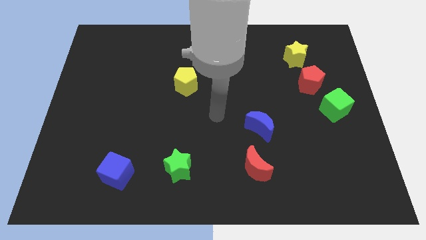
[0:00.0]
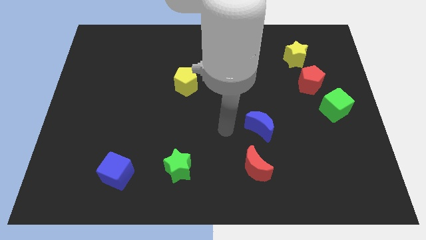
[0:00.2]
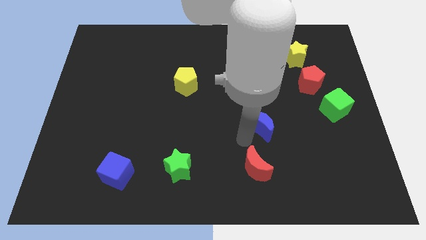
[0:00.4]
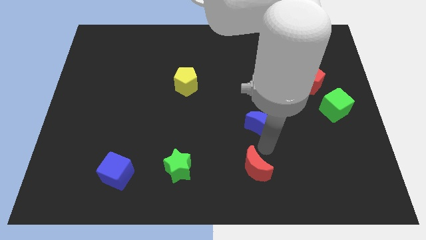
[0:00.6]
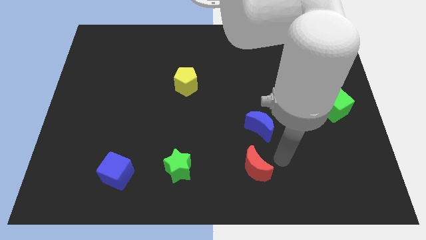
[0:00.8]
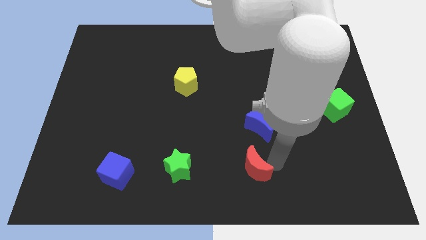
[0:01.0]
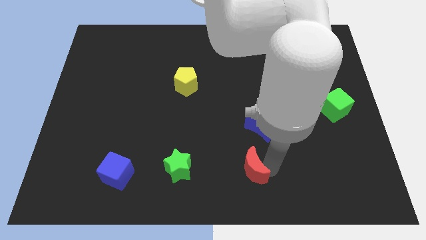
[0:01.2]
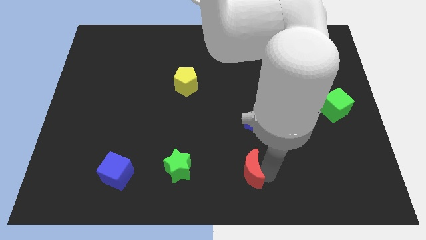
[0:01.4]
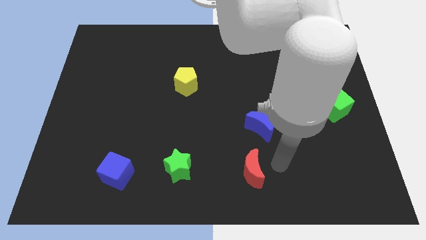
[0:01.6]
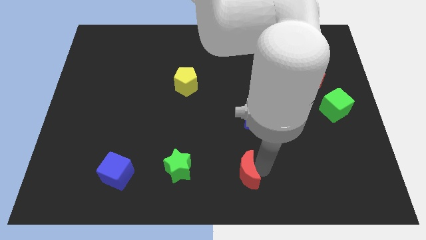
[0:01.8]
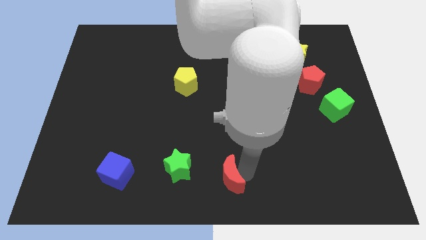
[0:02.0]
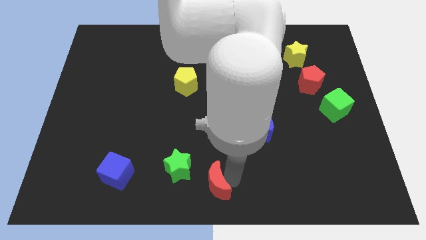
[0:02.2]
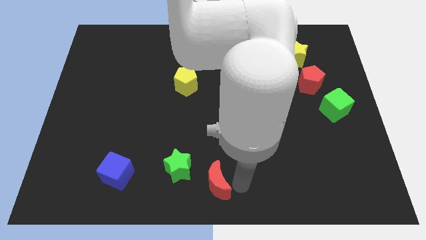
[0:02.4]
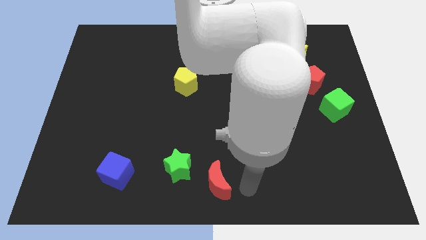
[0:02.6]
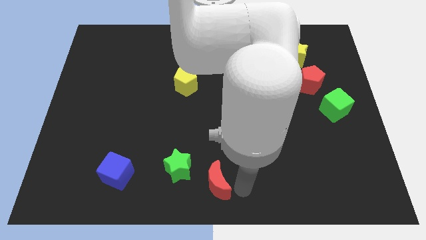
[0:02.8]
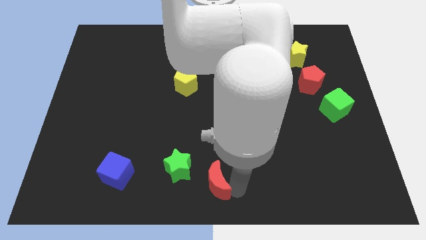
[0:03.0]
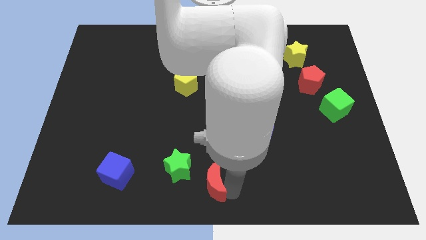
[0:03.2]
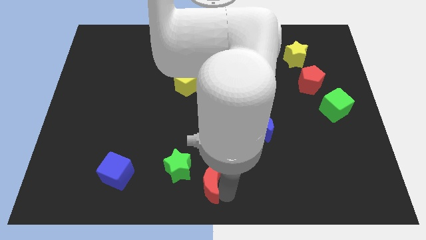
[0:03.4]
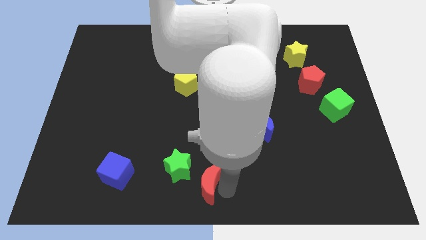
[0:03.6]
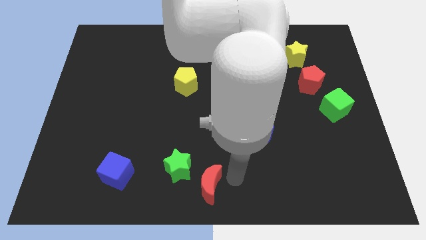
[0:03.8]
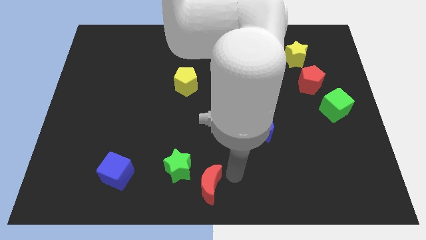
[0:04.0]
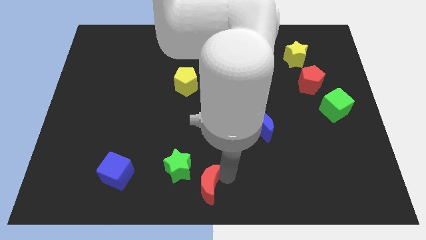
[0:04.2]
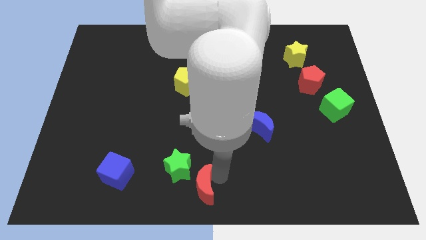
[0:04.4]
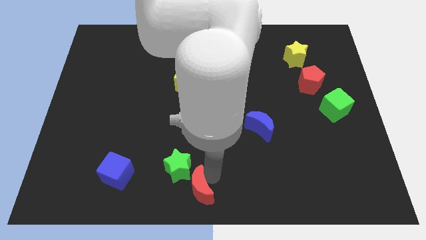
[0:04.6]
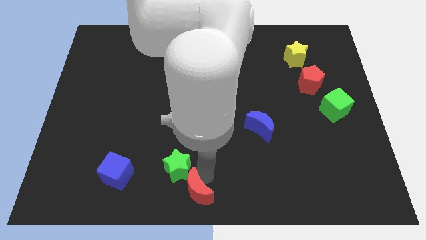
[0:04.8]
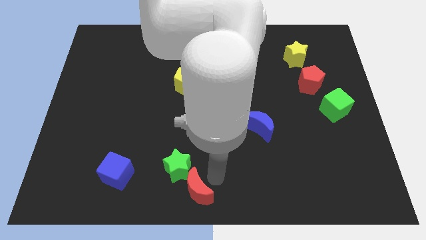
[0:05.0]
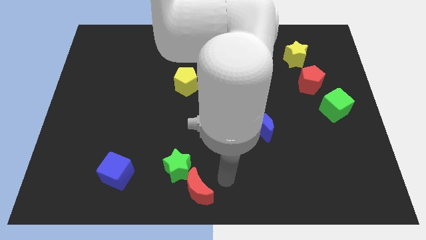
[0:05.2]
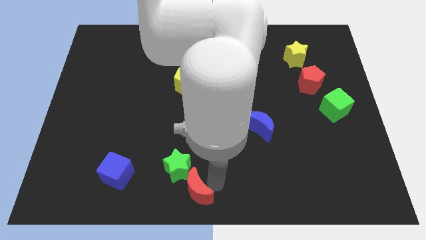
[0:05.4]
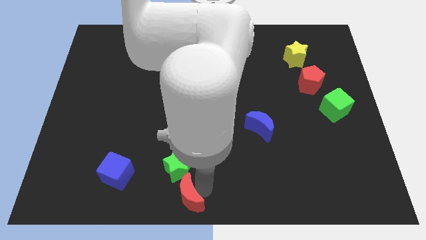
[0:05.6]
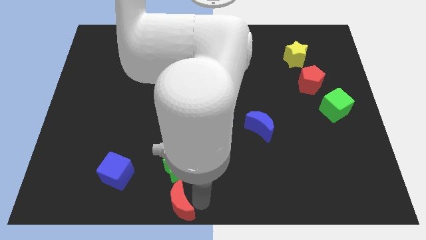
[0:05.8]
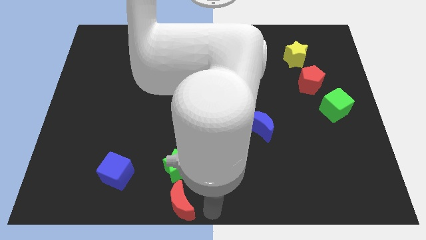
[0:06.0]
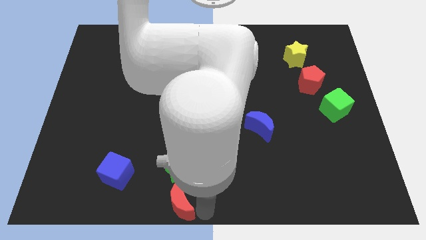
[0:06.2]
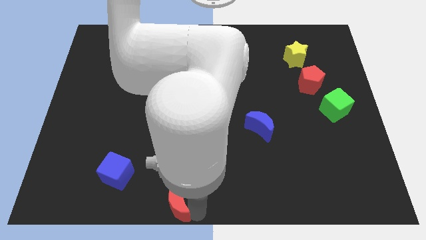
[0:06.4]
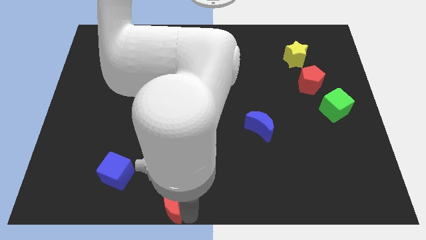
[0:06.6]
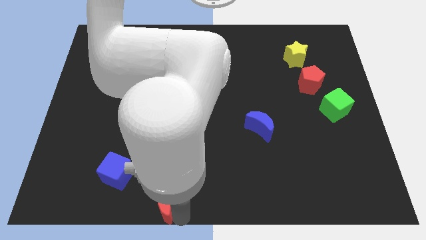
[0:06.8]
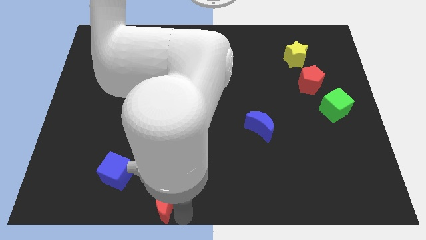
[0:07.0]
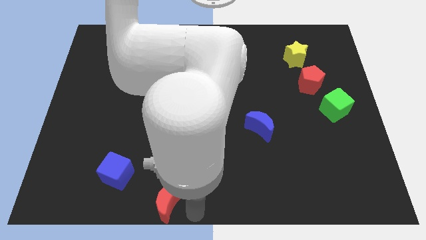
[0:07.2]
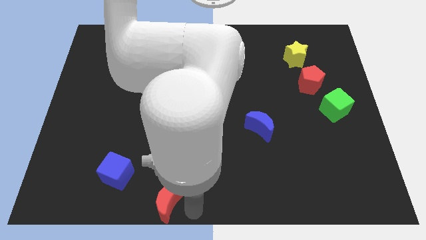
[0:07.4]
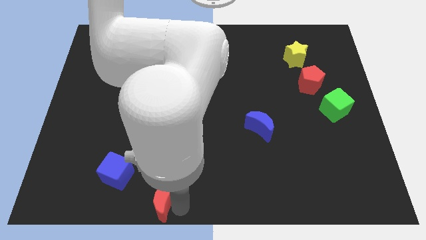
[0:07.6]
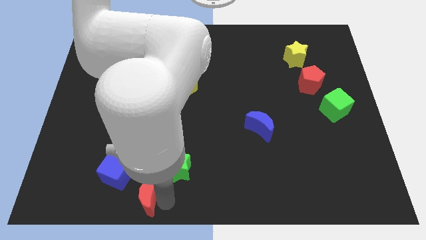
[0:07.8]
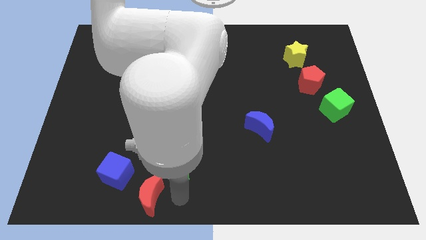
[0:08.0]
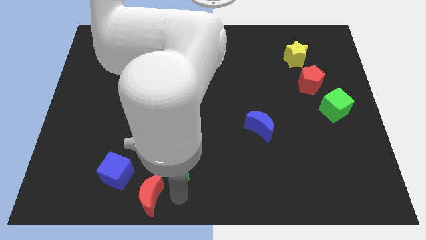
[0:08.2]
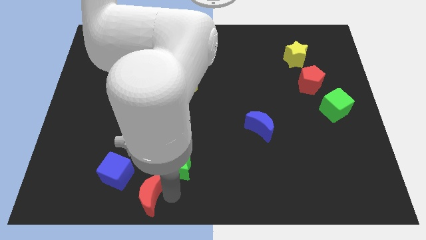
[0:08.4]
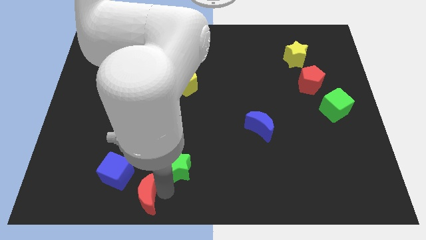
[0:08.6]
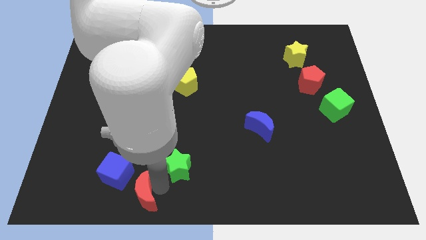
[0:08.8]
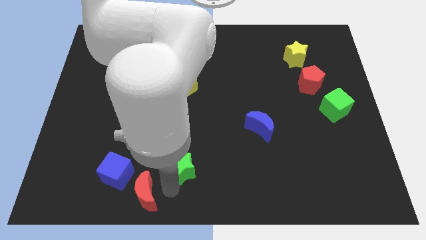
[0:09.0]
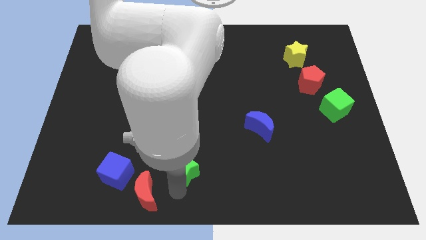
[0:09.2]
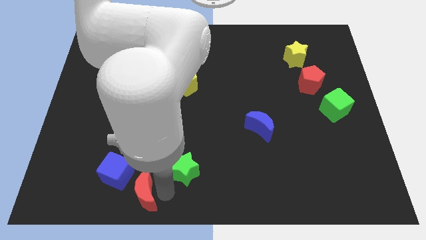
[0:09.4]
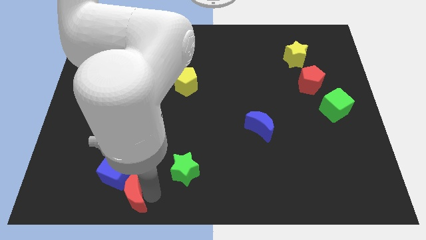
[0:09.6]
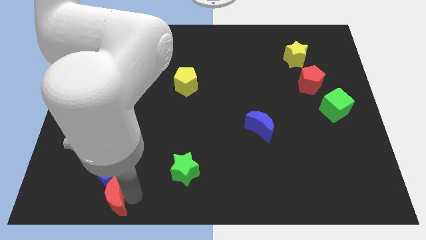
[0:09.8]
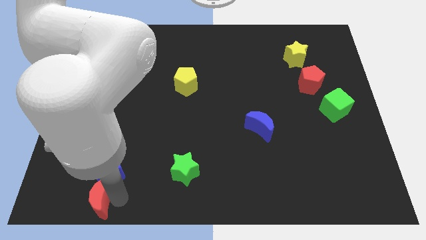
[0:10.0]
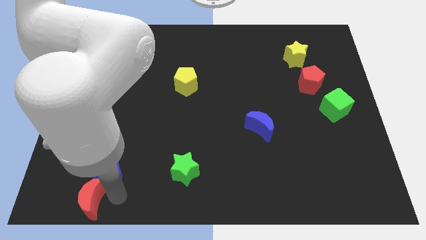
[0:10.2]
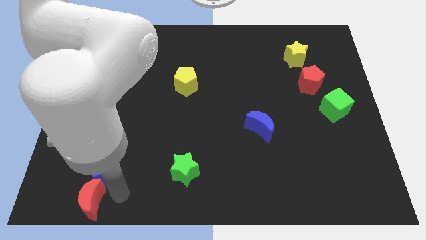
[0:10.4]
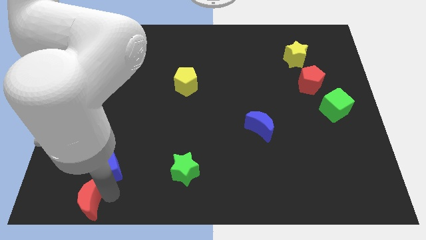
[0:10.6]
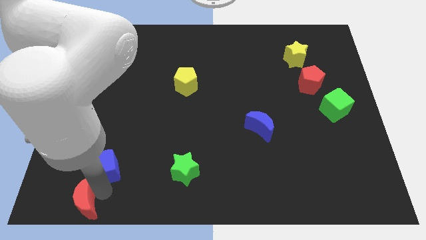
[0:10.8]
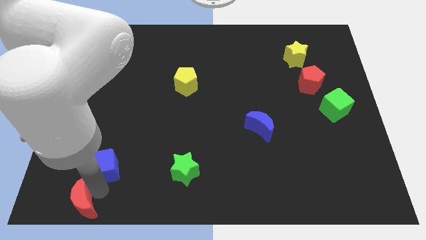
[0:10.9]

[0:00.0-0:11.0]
put the red moon to the bottom left of the board
